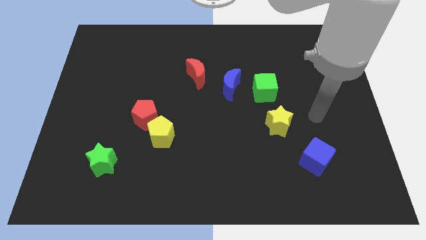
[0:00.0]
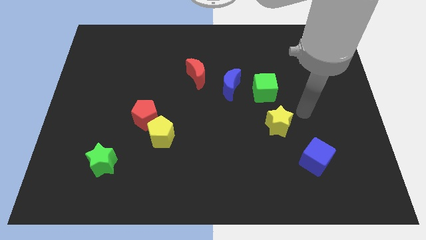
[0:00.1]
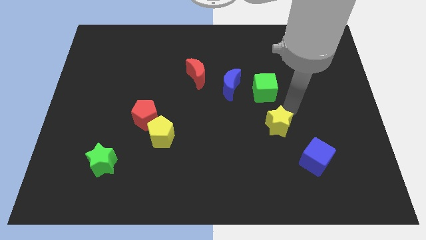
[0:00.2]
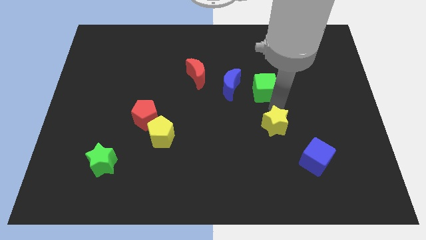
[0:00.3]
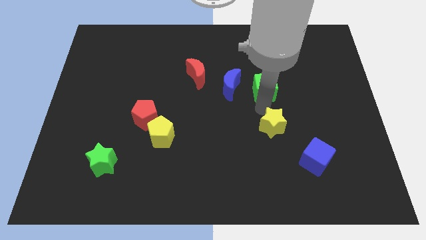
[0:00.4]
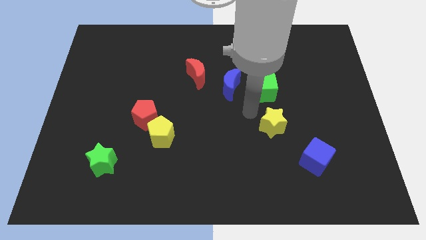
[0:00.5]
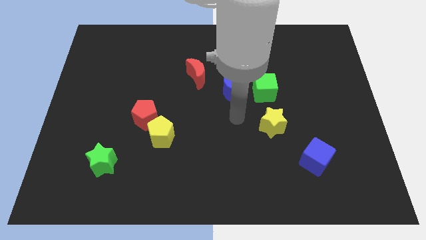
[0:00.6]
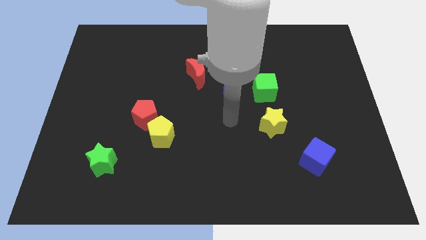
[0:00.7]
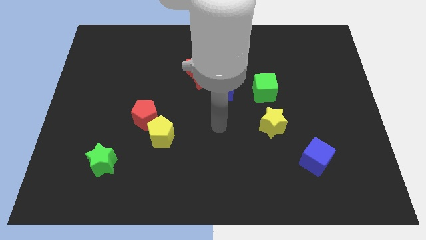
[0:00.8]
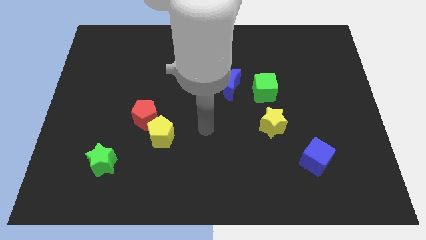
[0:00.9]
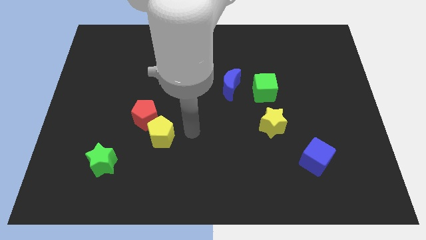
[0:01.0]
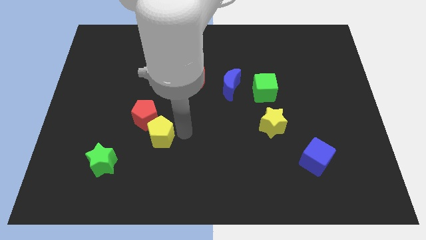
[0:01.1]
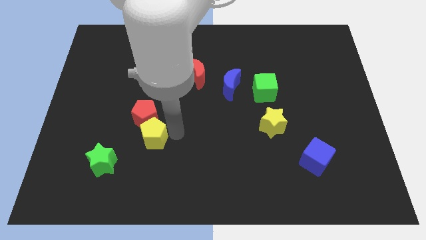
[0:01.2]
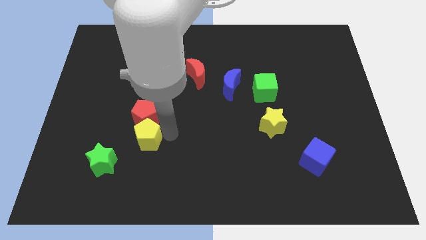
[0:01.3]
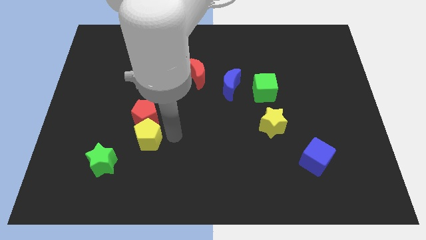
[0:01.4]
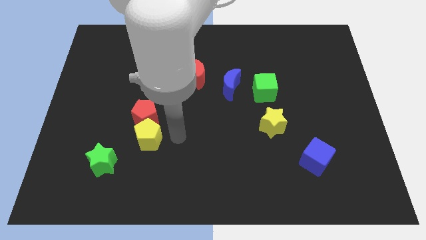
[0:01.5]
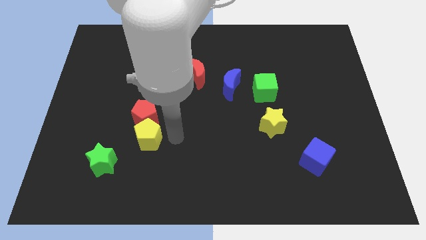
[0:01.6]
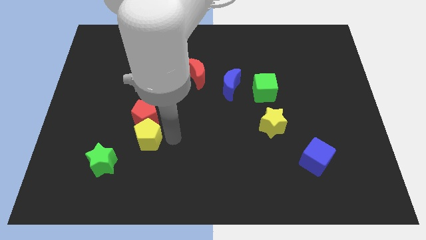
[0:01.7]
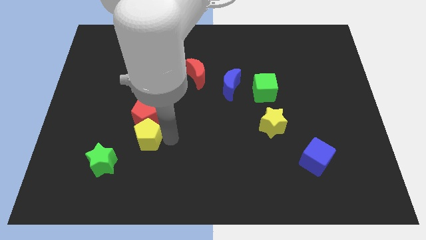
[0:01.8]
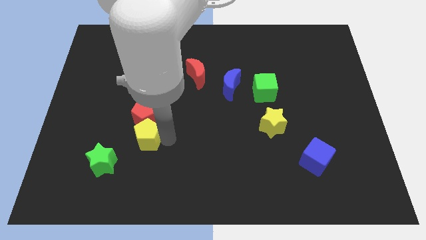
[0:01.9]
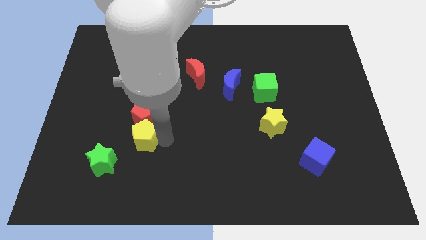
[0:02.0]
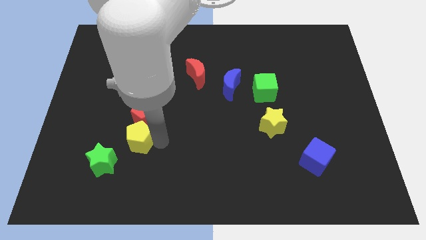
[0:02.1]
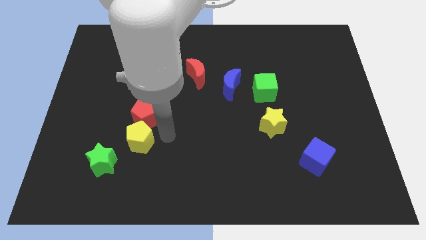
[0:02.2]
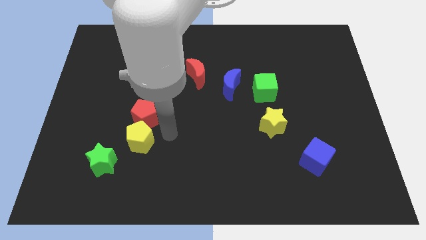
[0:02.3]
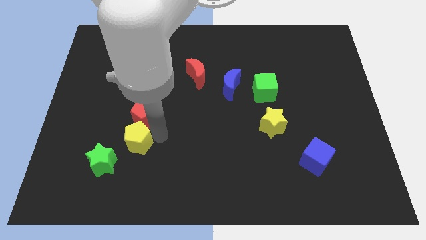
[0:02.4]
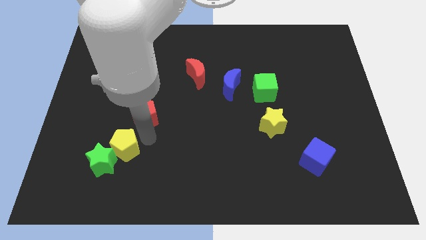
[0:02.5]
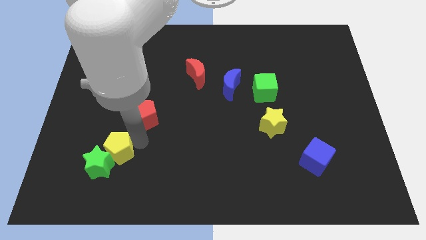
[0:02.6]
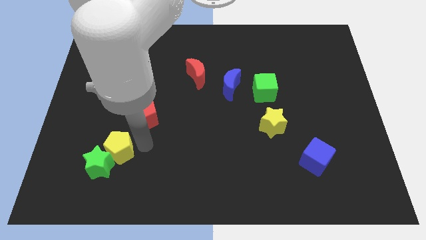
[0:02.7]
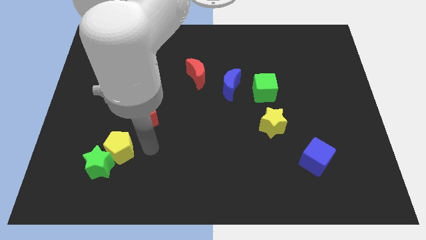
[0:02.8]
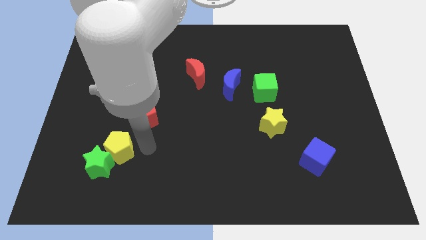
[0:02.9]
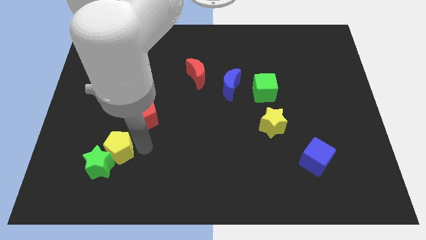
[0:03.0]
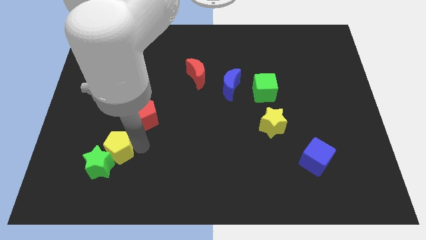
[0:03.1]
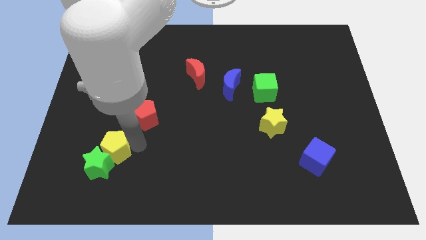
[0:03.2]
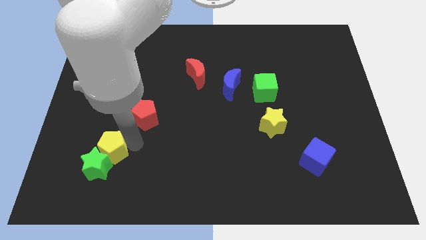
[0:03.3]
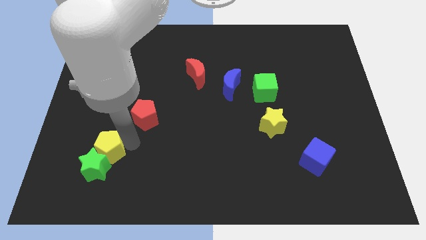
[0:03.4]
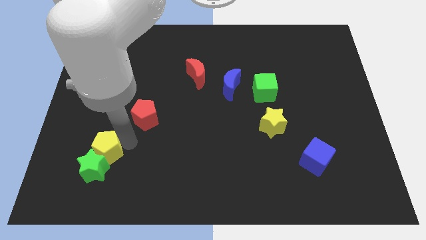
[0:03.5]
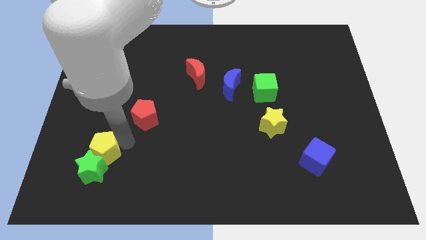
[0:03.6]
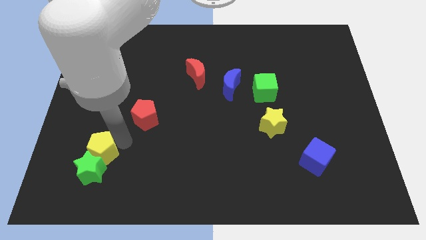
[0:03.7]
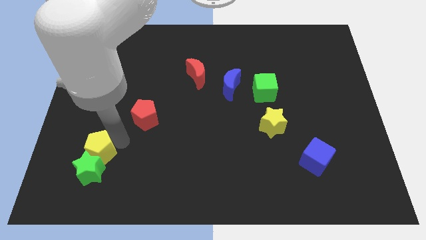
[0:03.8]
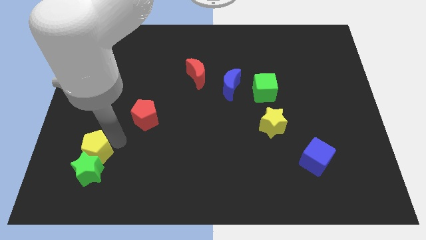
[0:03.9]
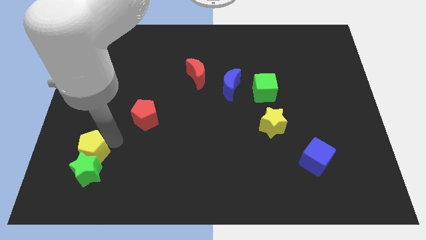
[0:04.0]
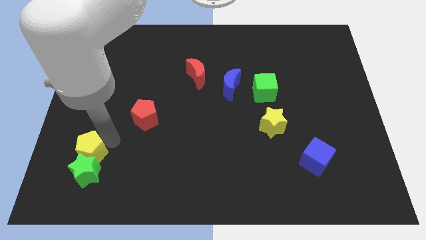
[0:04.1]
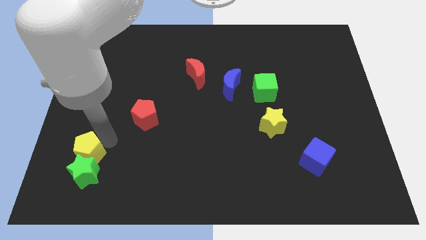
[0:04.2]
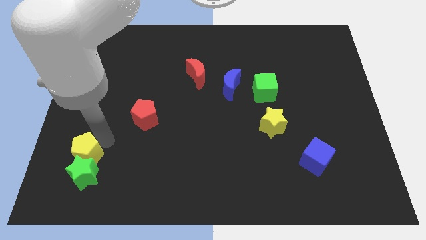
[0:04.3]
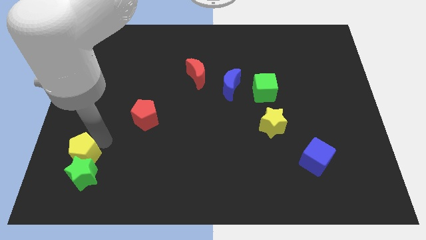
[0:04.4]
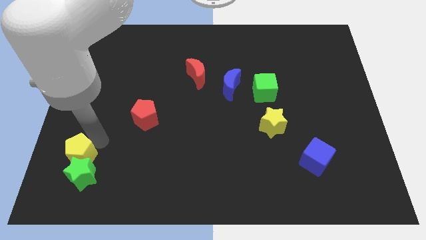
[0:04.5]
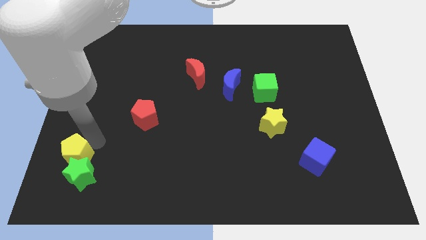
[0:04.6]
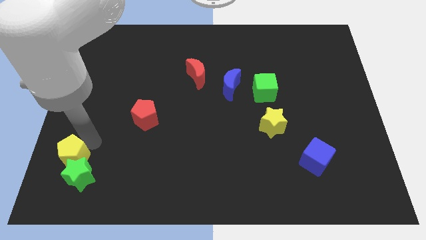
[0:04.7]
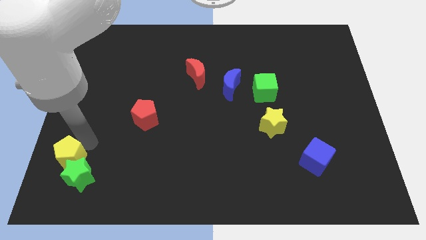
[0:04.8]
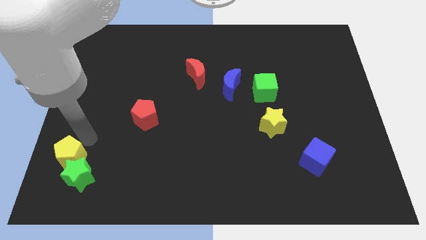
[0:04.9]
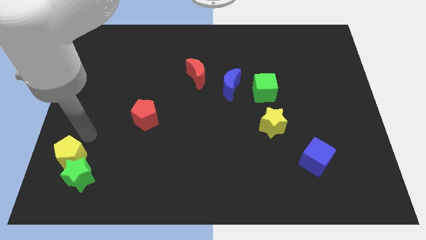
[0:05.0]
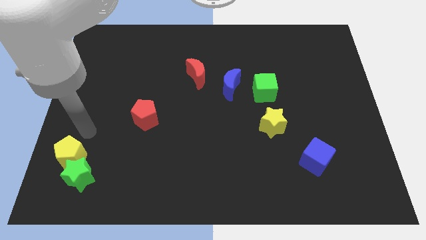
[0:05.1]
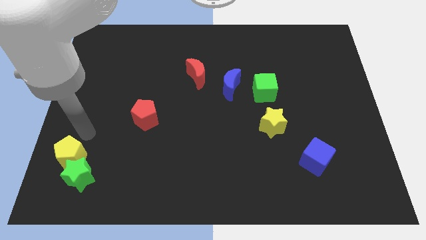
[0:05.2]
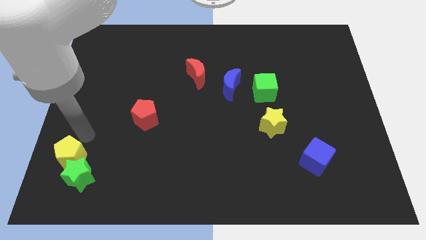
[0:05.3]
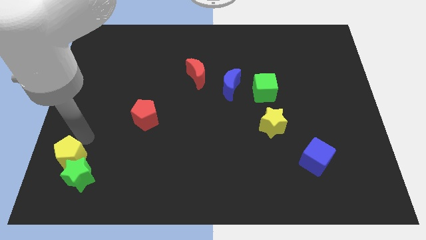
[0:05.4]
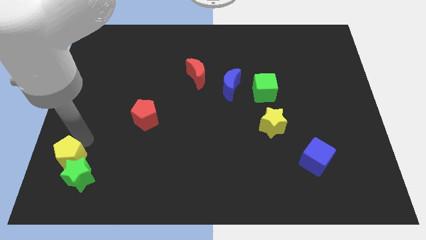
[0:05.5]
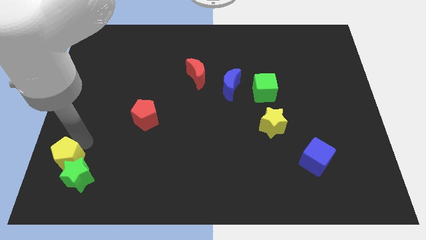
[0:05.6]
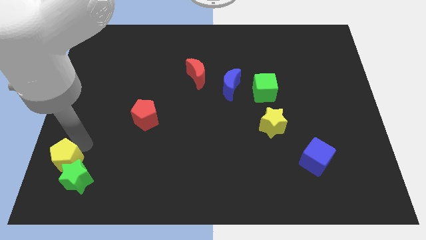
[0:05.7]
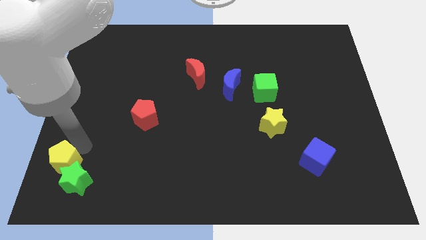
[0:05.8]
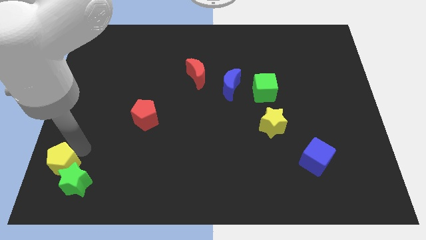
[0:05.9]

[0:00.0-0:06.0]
move the yellow pentagon to the bottom left of the board
